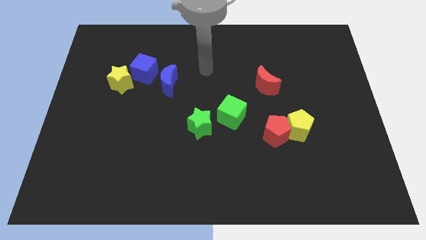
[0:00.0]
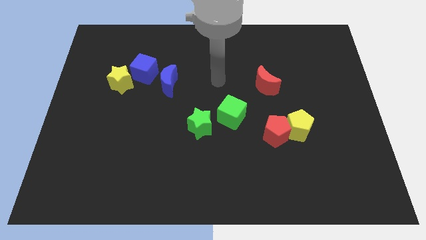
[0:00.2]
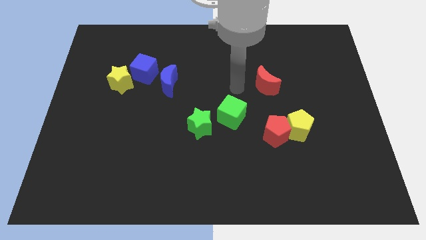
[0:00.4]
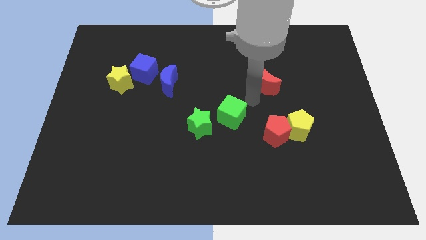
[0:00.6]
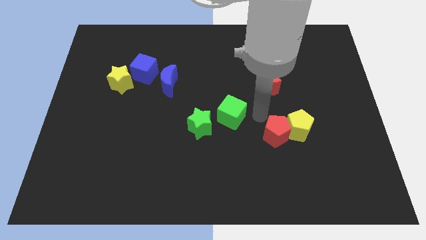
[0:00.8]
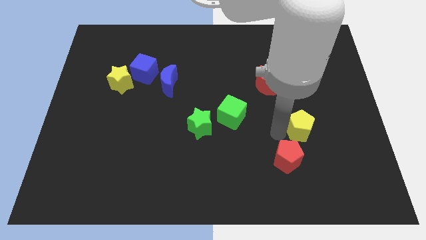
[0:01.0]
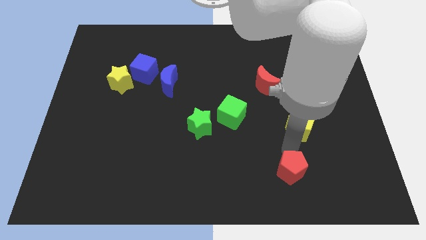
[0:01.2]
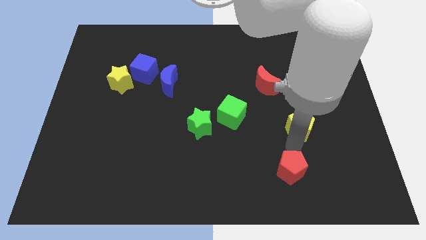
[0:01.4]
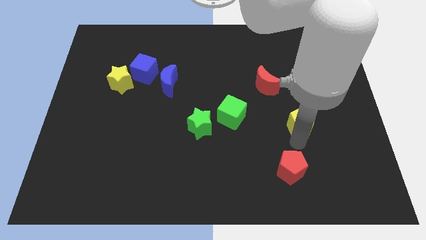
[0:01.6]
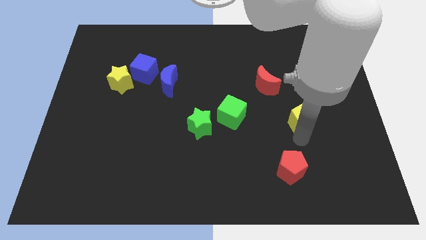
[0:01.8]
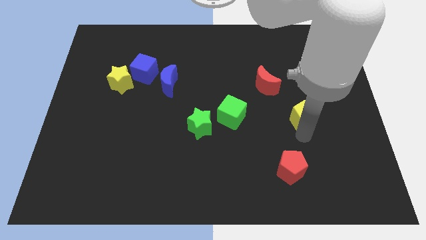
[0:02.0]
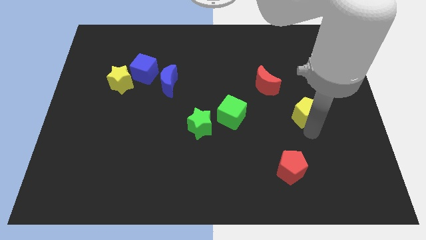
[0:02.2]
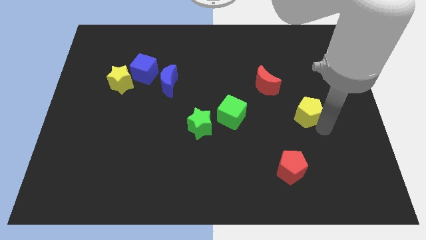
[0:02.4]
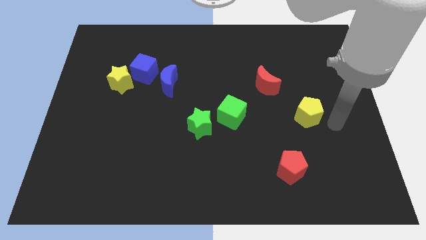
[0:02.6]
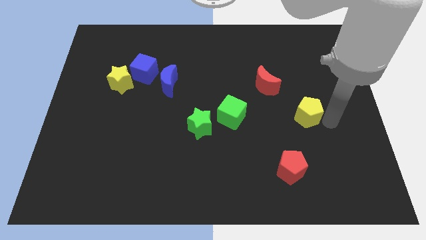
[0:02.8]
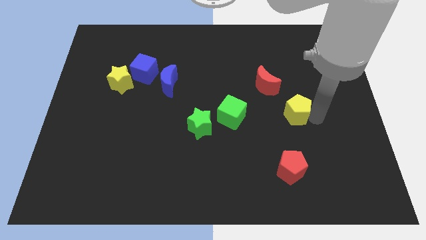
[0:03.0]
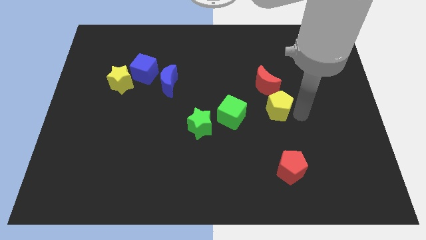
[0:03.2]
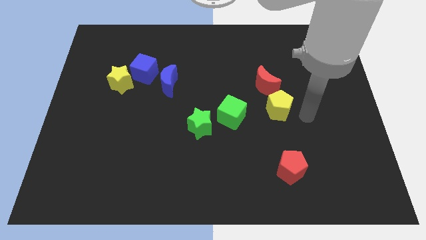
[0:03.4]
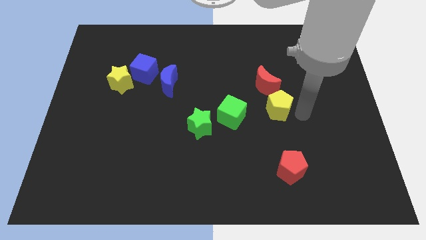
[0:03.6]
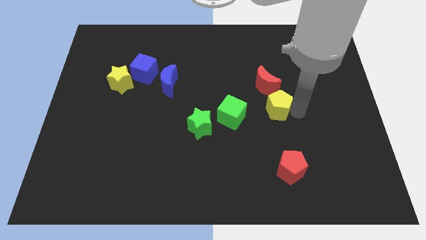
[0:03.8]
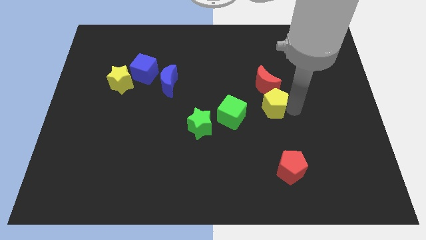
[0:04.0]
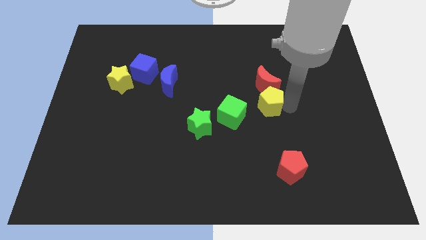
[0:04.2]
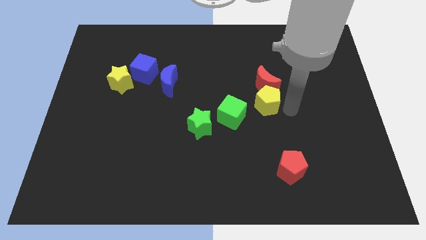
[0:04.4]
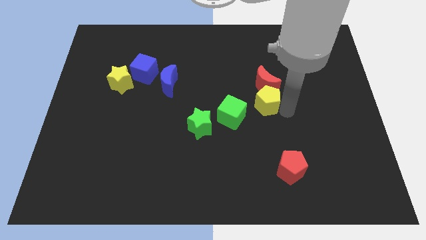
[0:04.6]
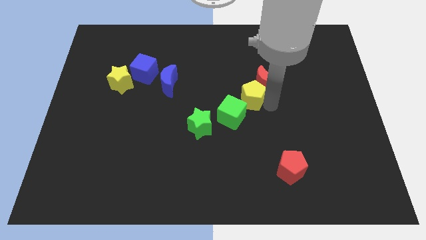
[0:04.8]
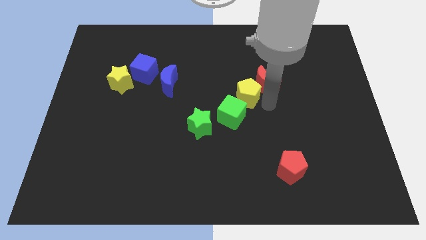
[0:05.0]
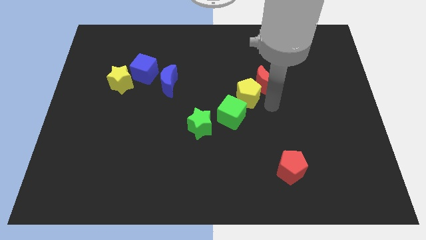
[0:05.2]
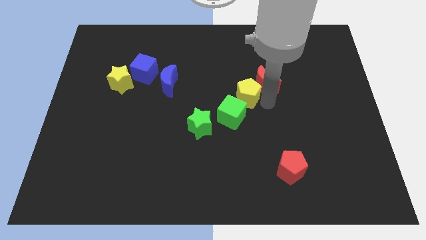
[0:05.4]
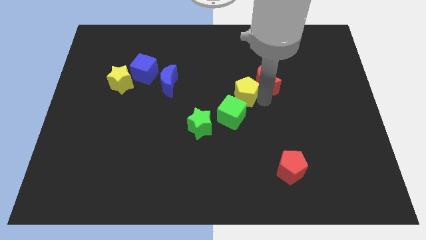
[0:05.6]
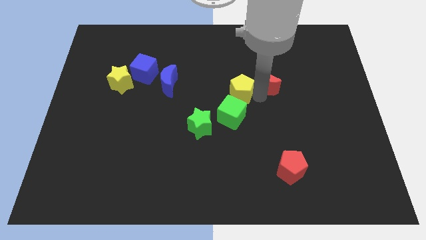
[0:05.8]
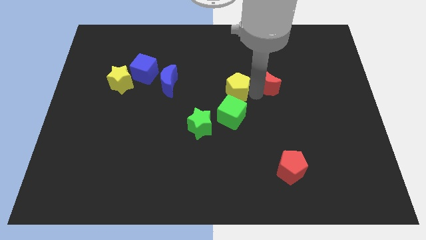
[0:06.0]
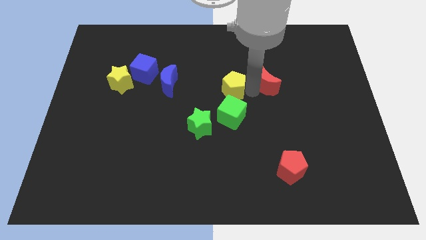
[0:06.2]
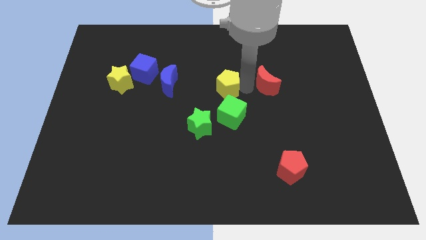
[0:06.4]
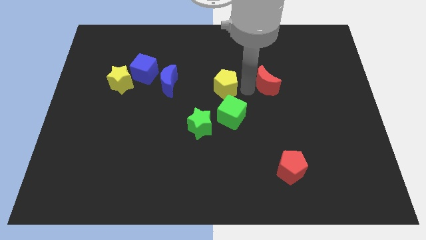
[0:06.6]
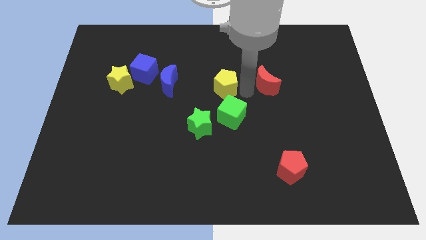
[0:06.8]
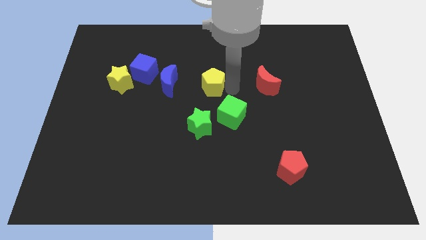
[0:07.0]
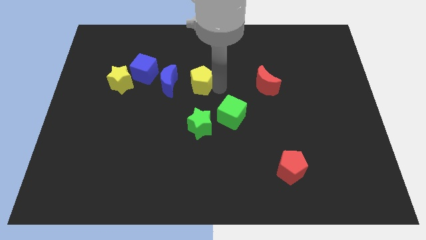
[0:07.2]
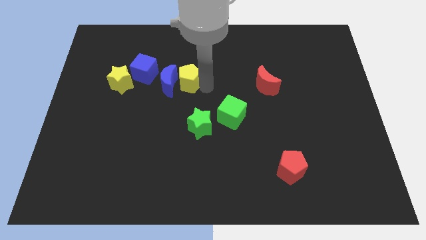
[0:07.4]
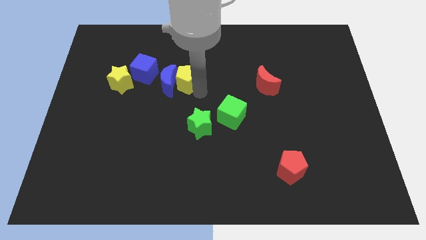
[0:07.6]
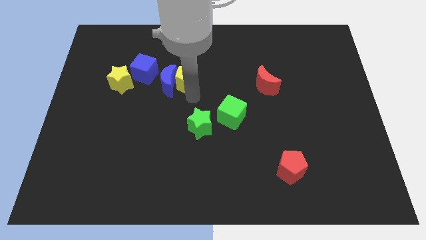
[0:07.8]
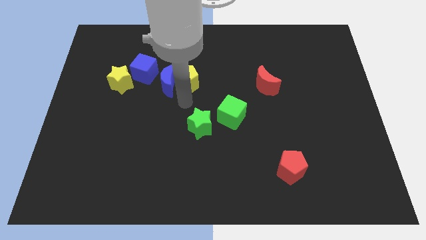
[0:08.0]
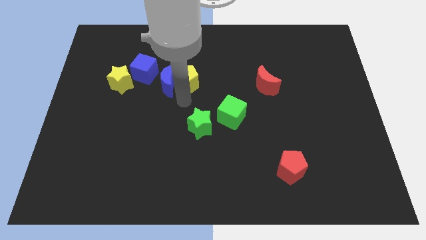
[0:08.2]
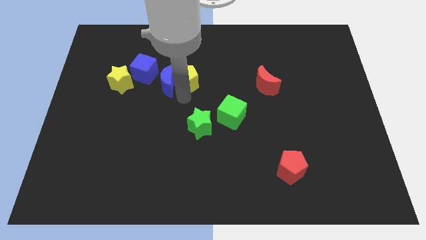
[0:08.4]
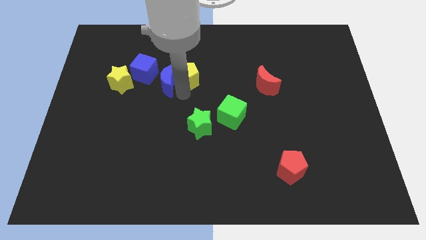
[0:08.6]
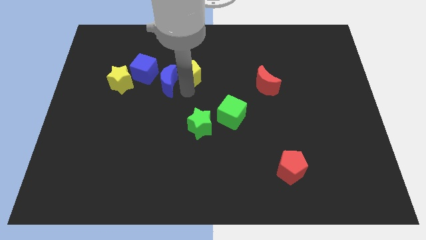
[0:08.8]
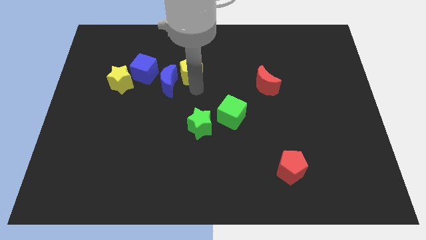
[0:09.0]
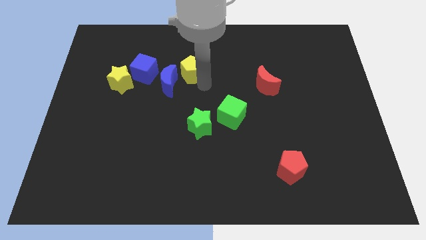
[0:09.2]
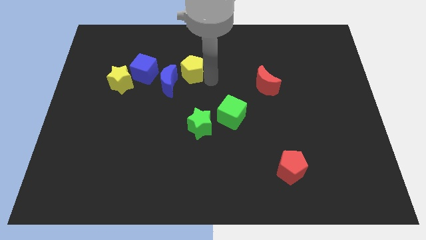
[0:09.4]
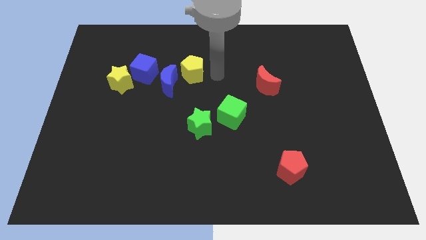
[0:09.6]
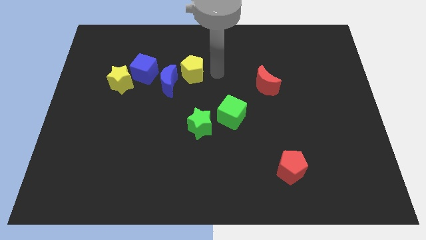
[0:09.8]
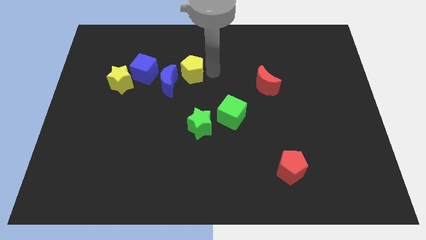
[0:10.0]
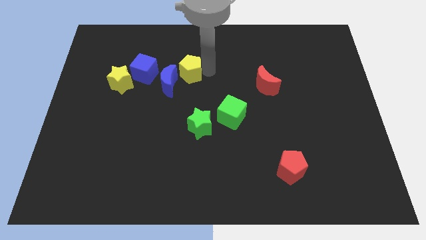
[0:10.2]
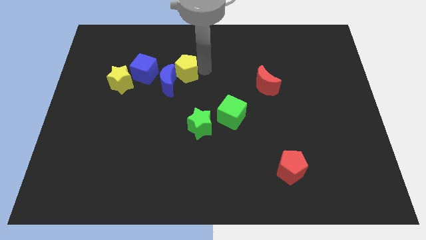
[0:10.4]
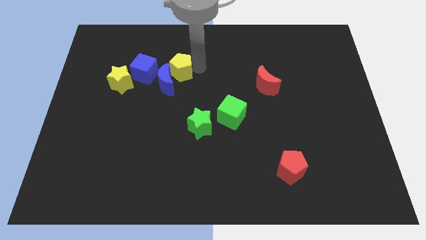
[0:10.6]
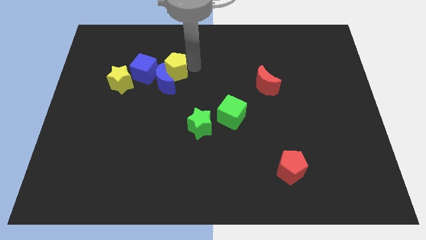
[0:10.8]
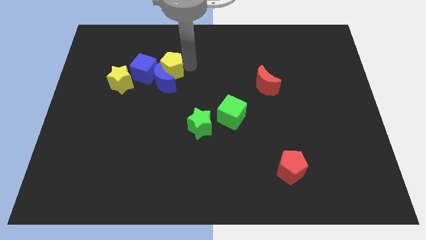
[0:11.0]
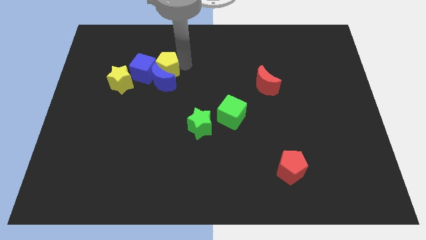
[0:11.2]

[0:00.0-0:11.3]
put the yellow pentagon towards the blue cube

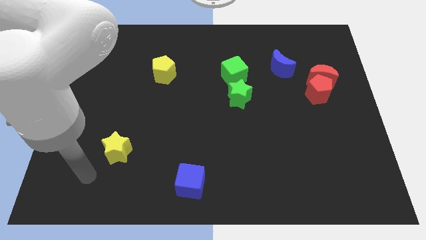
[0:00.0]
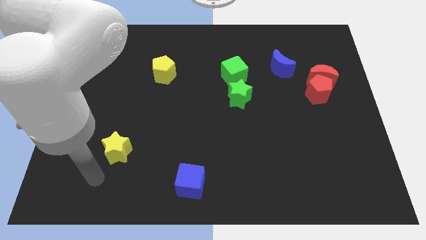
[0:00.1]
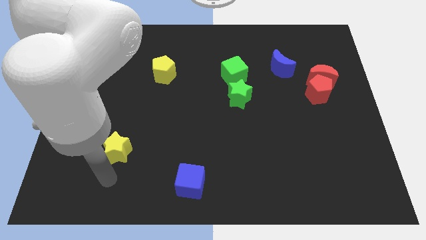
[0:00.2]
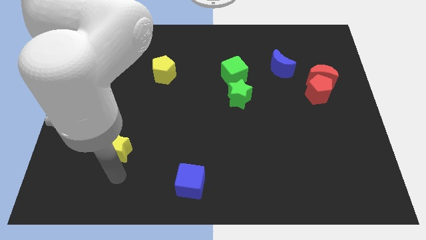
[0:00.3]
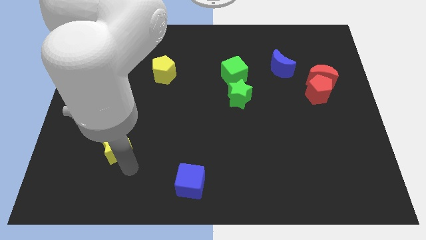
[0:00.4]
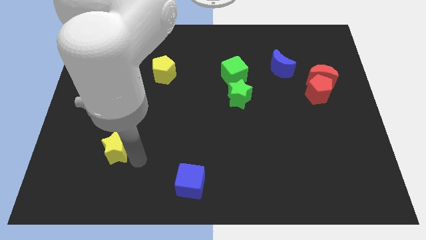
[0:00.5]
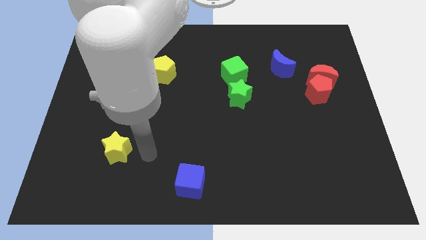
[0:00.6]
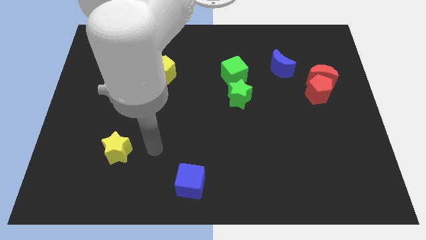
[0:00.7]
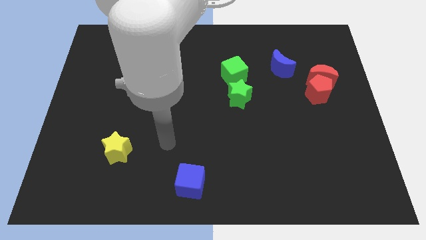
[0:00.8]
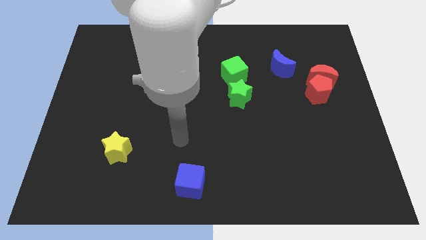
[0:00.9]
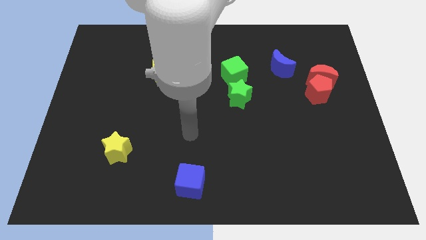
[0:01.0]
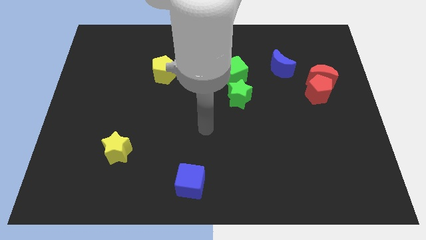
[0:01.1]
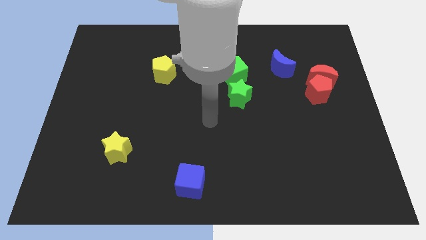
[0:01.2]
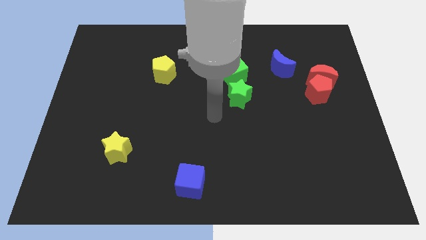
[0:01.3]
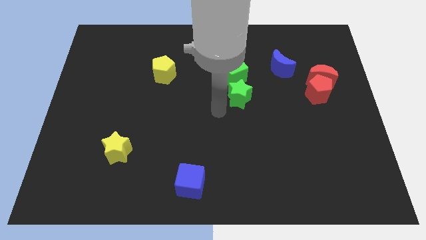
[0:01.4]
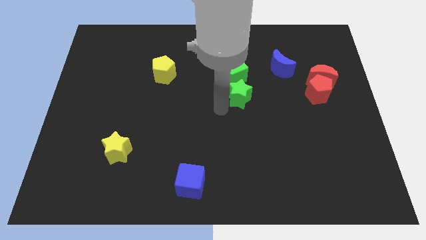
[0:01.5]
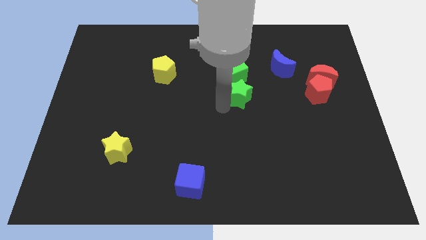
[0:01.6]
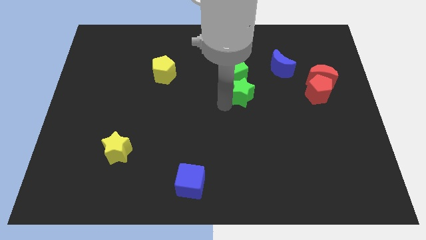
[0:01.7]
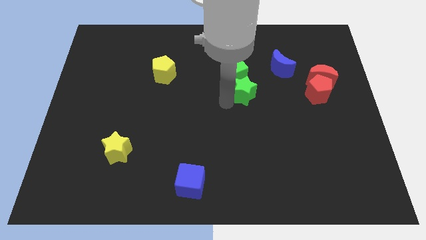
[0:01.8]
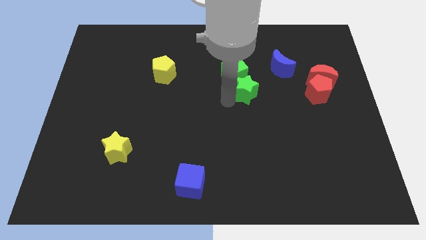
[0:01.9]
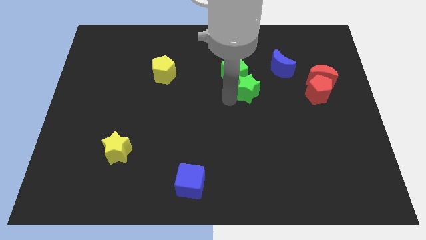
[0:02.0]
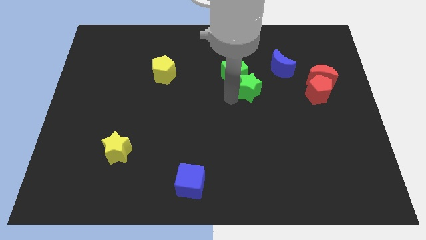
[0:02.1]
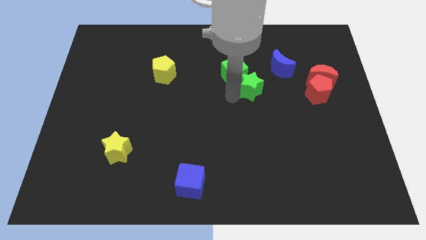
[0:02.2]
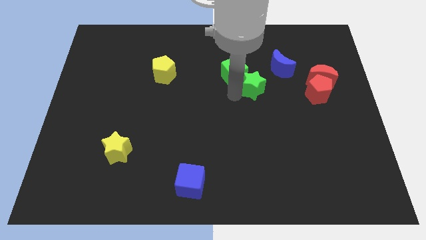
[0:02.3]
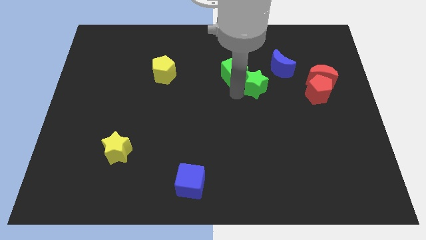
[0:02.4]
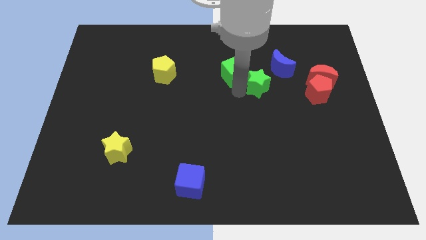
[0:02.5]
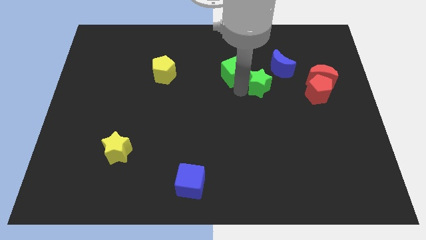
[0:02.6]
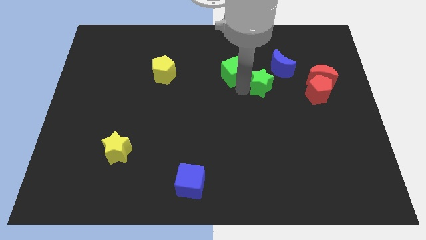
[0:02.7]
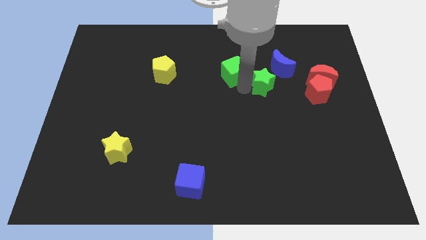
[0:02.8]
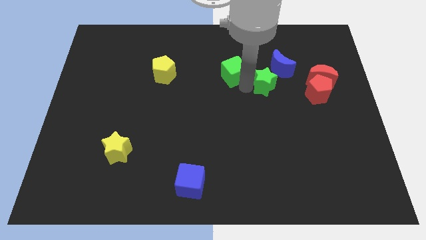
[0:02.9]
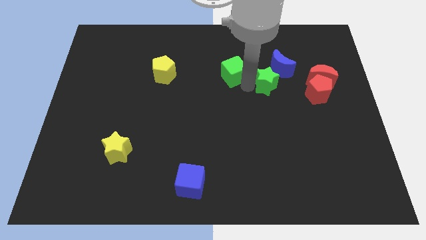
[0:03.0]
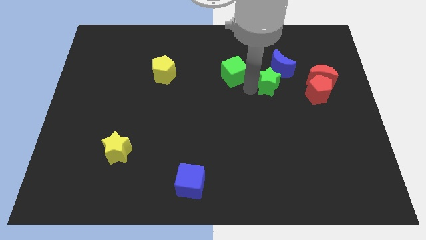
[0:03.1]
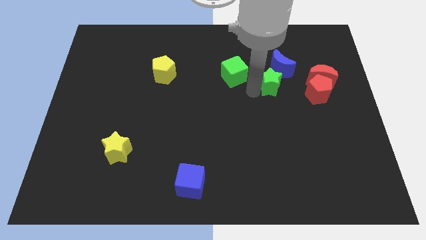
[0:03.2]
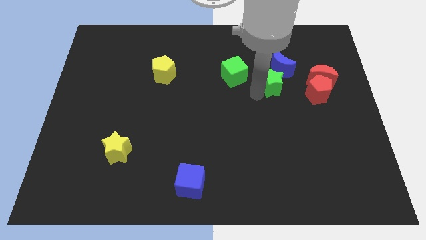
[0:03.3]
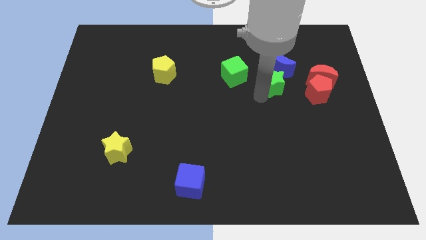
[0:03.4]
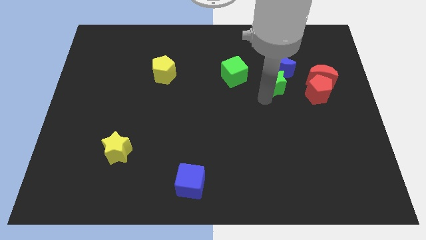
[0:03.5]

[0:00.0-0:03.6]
slide the green star next to the blue moon
